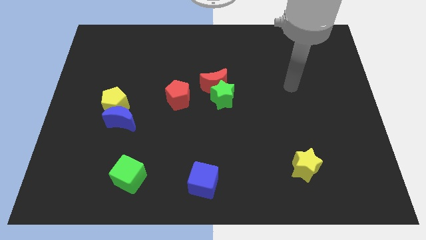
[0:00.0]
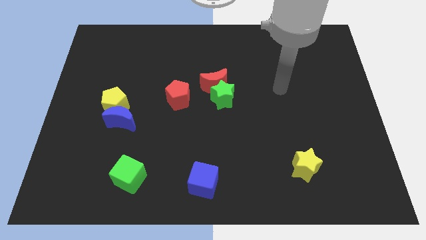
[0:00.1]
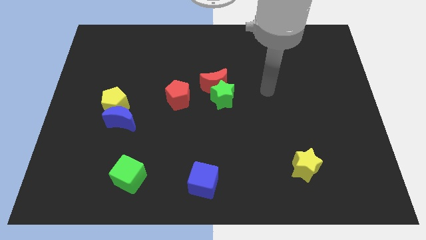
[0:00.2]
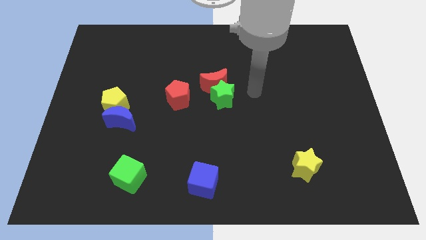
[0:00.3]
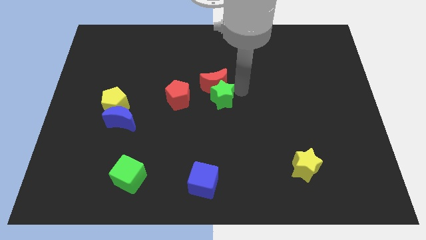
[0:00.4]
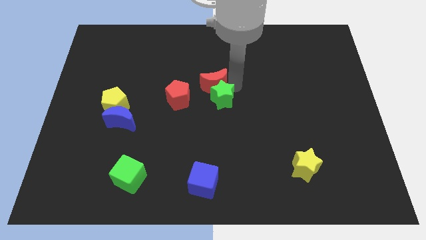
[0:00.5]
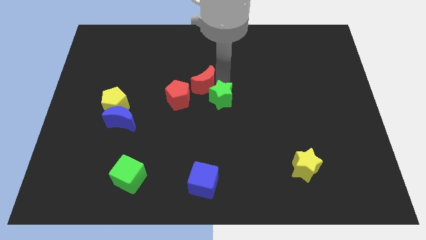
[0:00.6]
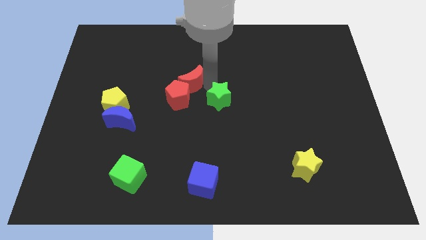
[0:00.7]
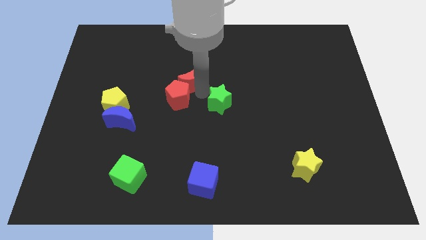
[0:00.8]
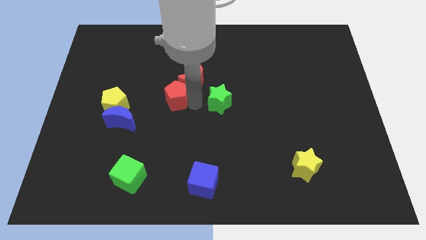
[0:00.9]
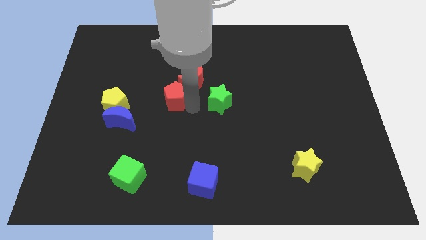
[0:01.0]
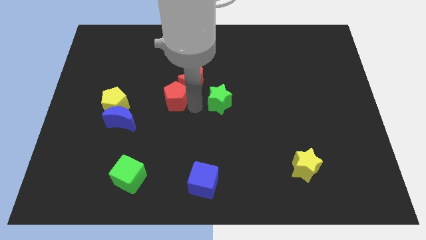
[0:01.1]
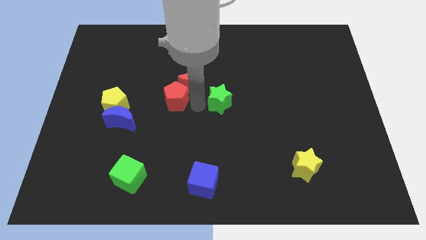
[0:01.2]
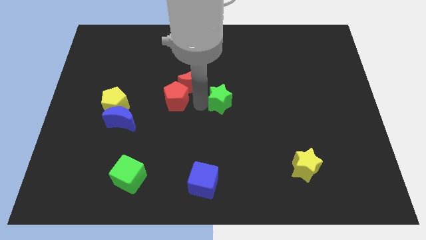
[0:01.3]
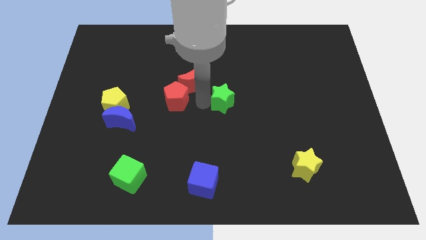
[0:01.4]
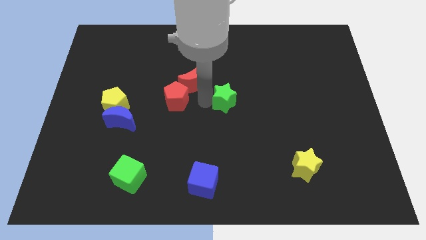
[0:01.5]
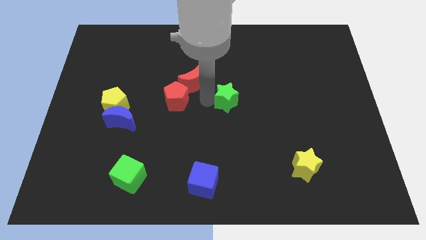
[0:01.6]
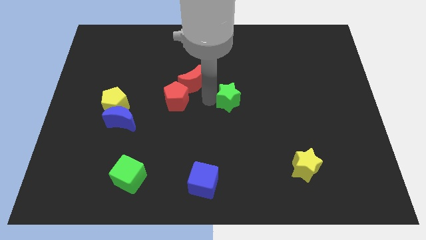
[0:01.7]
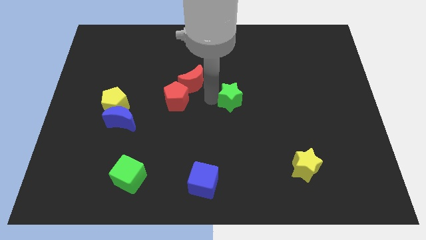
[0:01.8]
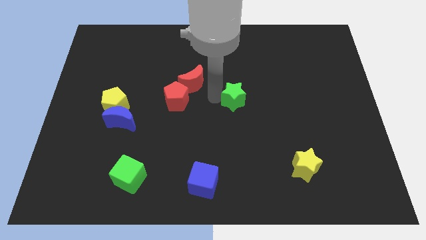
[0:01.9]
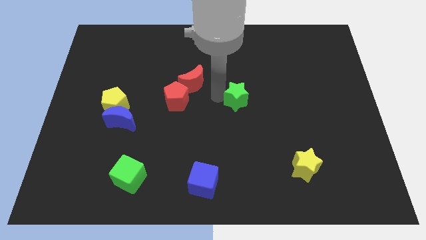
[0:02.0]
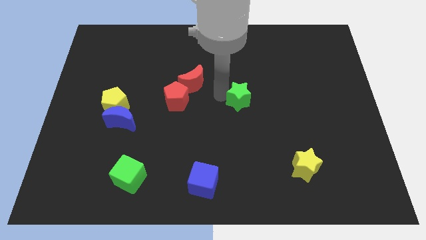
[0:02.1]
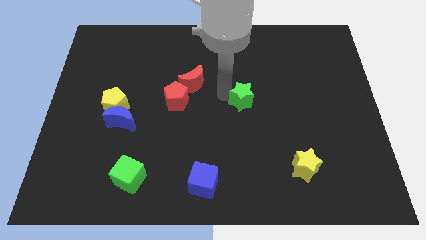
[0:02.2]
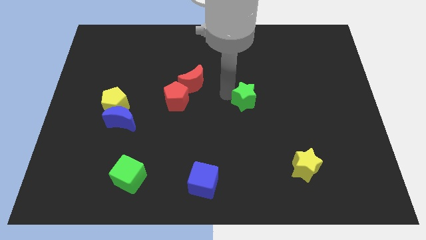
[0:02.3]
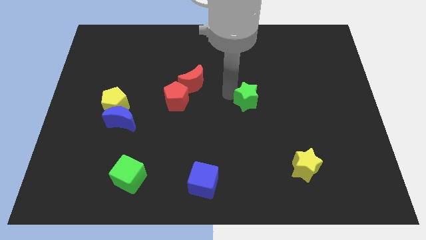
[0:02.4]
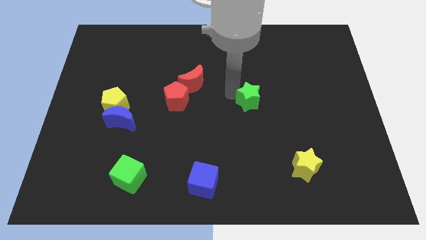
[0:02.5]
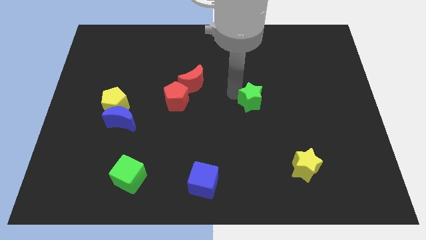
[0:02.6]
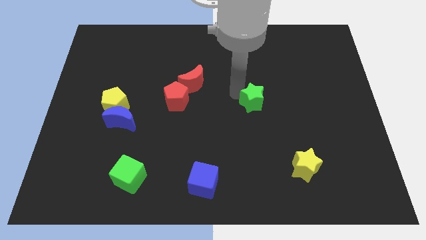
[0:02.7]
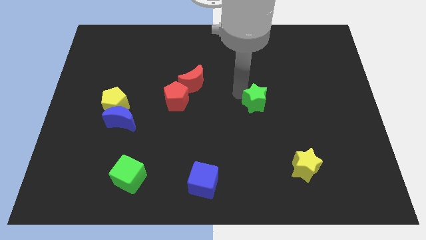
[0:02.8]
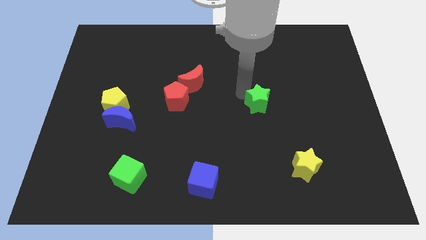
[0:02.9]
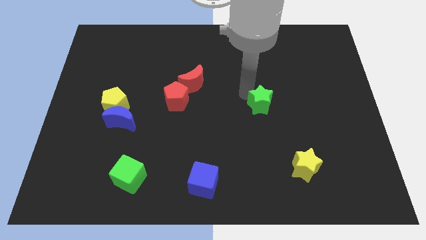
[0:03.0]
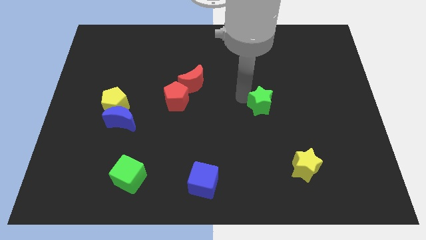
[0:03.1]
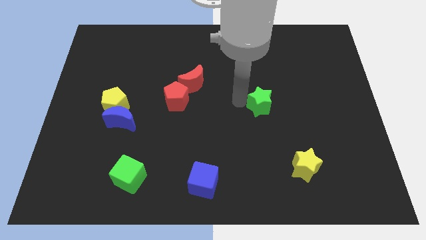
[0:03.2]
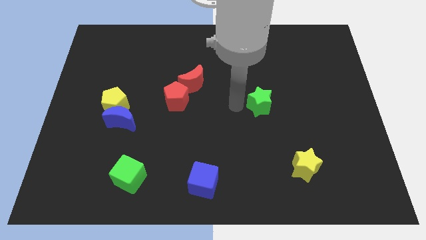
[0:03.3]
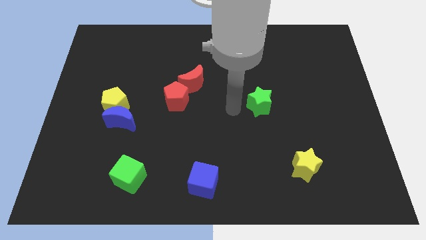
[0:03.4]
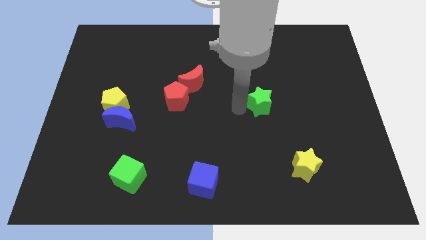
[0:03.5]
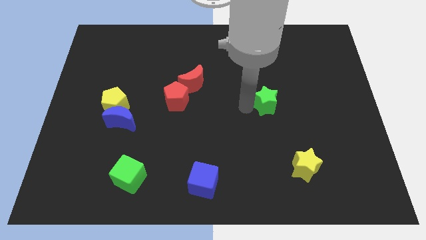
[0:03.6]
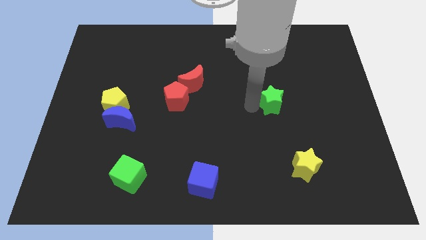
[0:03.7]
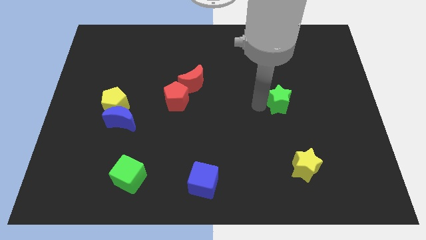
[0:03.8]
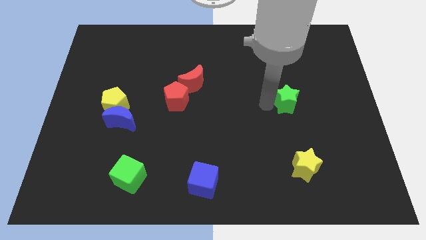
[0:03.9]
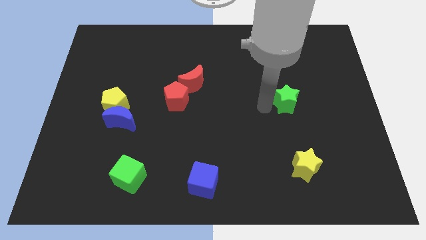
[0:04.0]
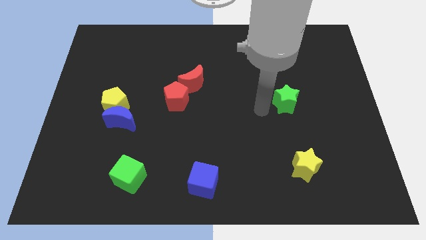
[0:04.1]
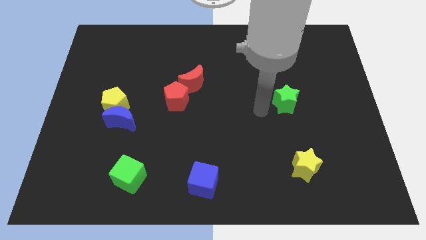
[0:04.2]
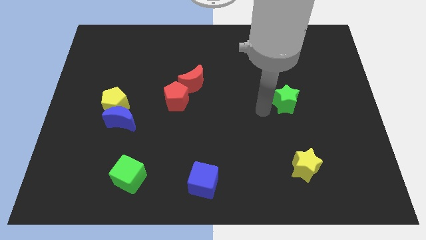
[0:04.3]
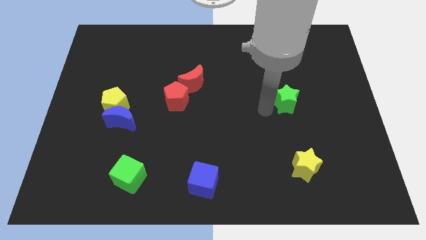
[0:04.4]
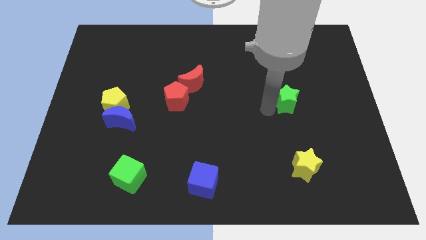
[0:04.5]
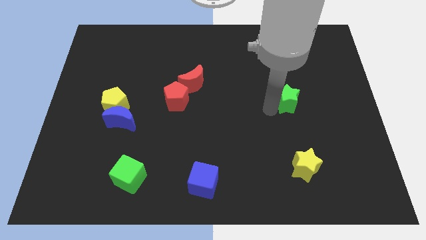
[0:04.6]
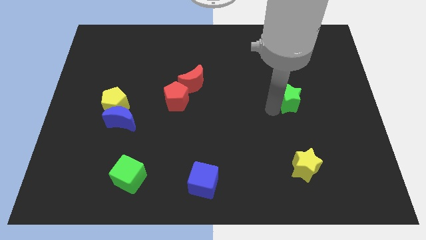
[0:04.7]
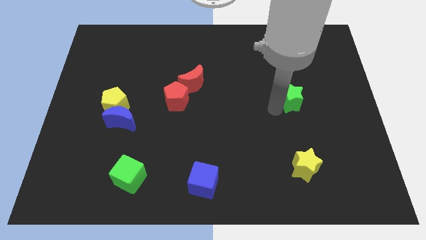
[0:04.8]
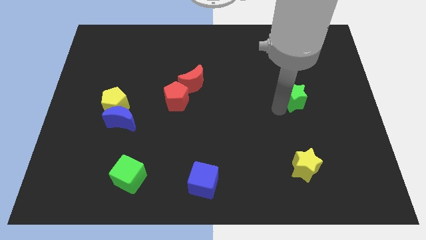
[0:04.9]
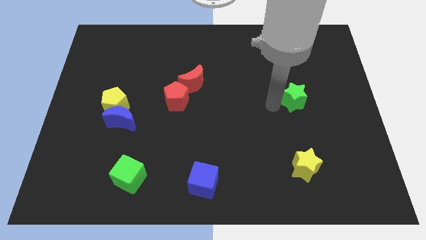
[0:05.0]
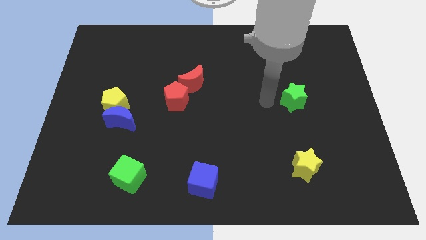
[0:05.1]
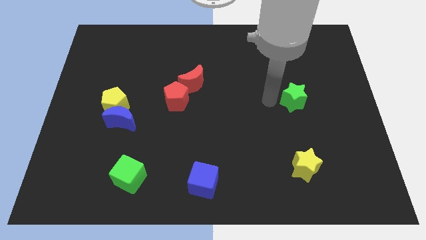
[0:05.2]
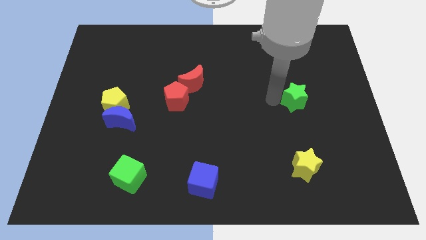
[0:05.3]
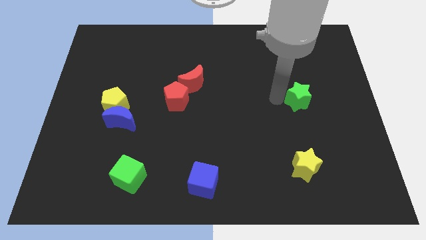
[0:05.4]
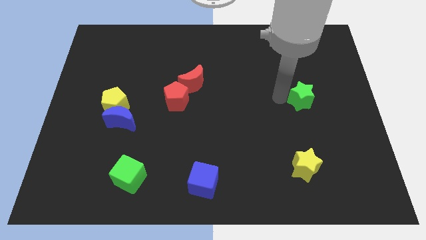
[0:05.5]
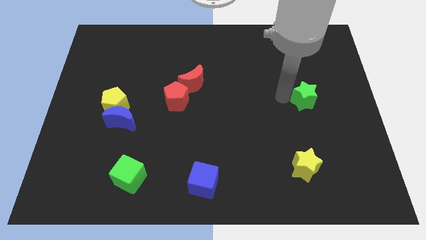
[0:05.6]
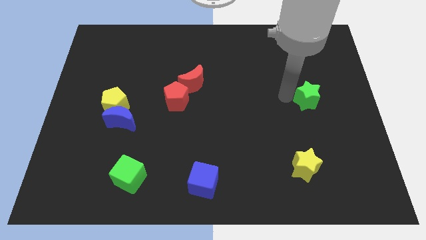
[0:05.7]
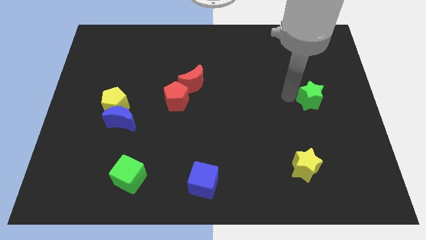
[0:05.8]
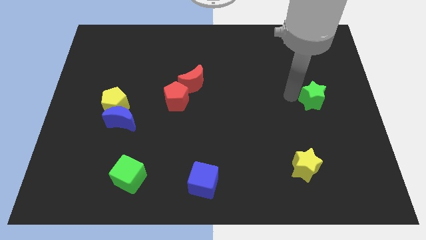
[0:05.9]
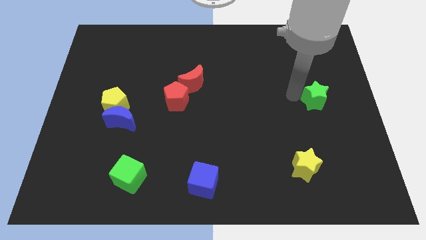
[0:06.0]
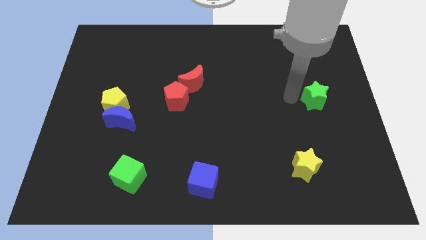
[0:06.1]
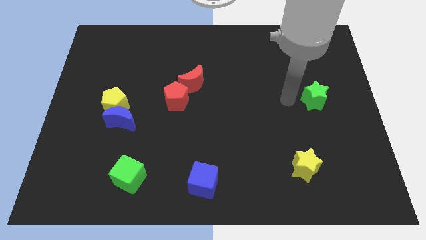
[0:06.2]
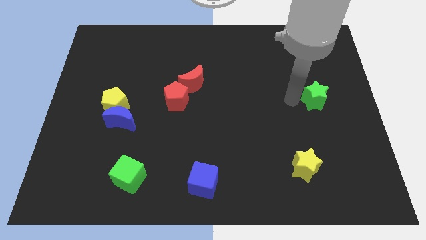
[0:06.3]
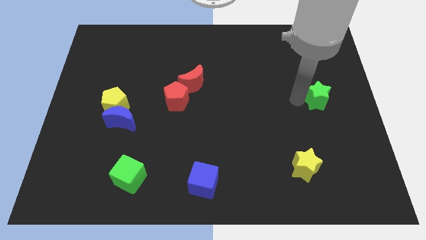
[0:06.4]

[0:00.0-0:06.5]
push the green star to the right side of the board

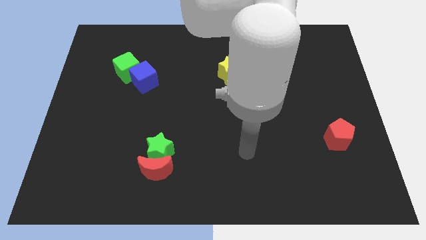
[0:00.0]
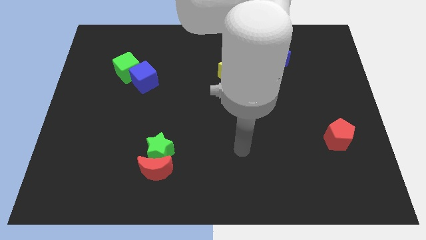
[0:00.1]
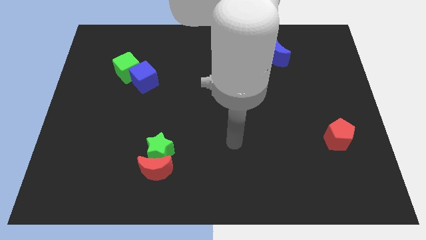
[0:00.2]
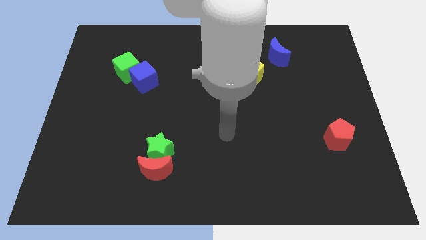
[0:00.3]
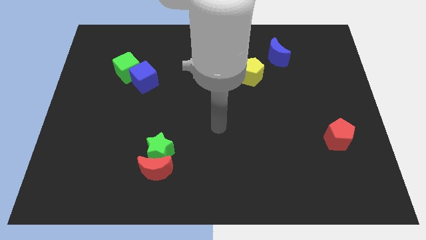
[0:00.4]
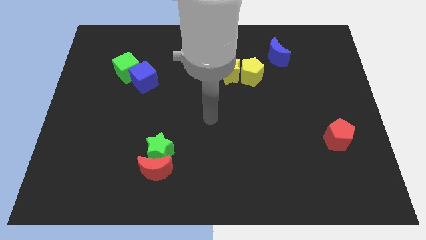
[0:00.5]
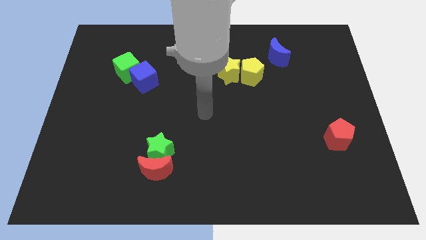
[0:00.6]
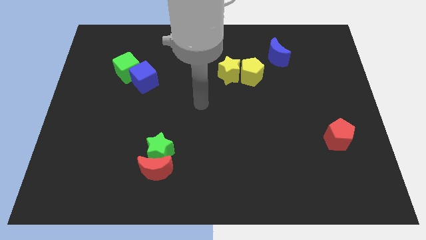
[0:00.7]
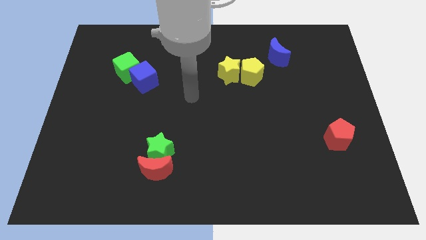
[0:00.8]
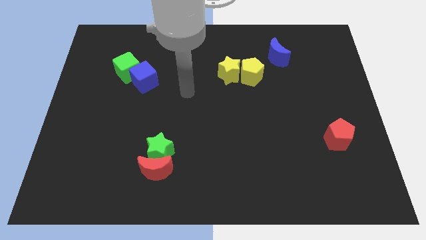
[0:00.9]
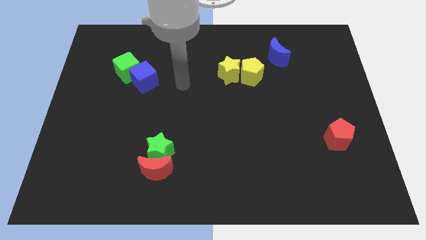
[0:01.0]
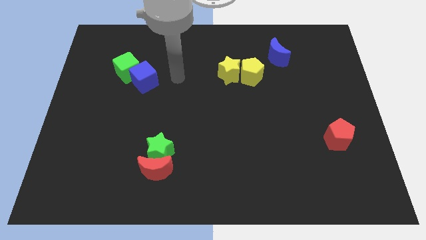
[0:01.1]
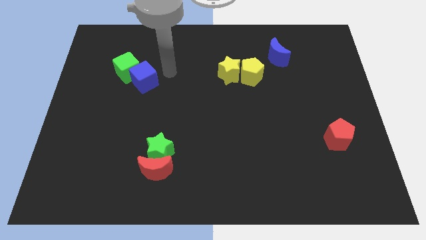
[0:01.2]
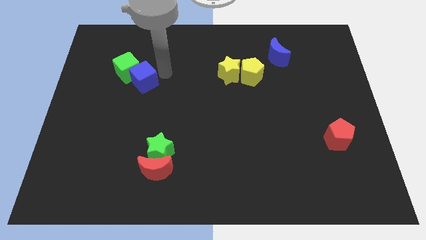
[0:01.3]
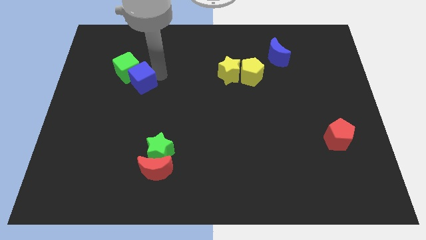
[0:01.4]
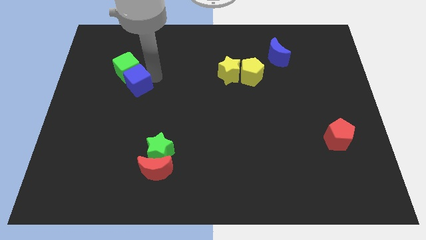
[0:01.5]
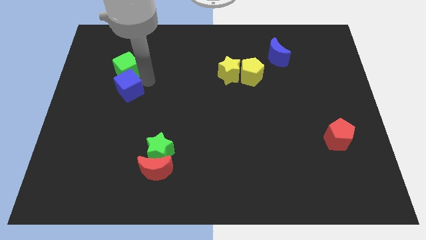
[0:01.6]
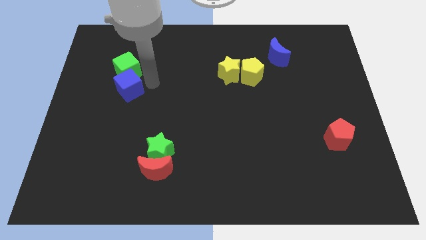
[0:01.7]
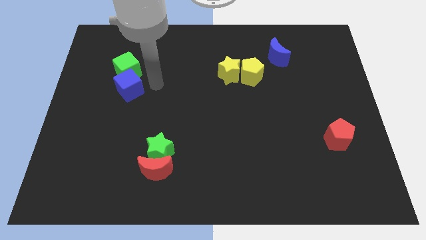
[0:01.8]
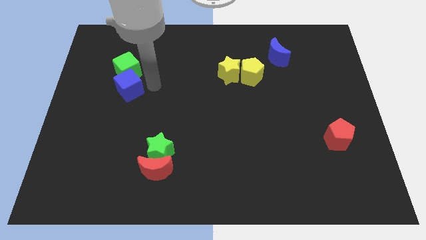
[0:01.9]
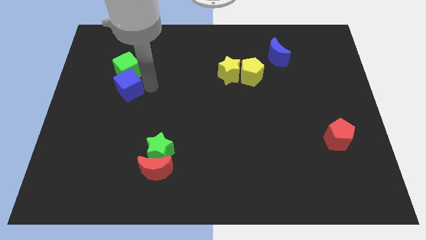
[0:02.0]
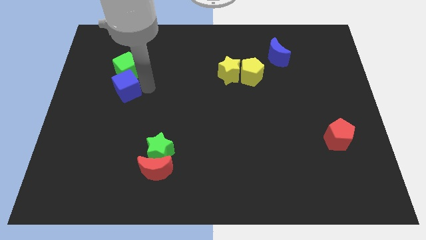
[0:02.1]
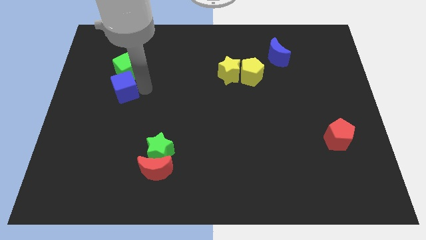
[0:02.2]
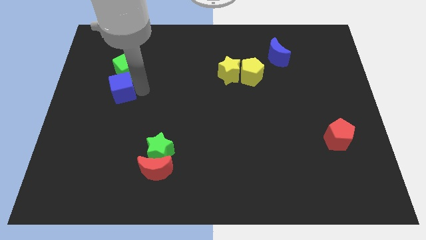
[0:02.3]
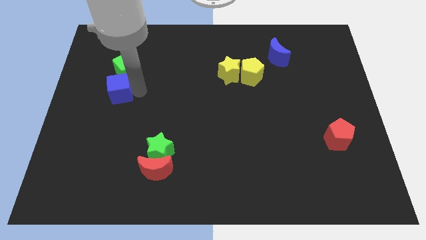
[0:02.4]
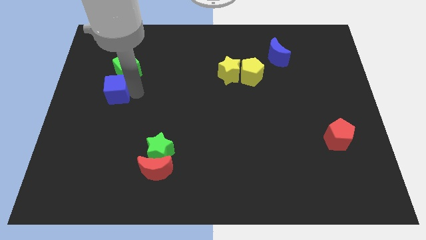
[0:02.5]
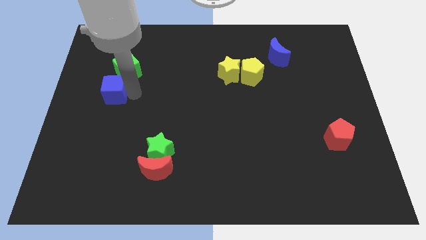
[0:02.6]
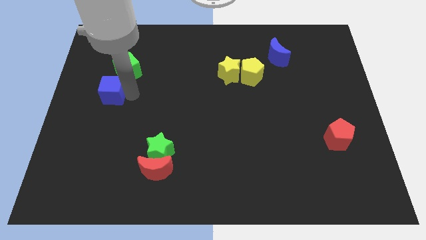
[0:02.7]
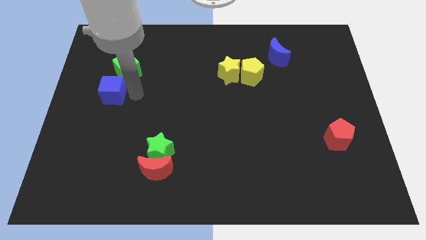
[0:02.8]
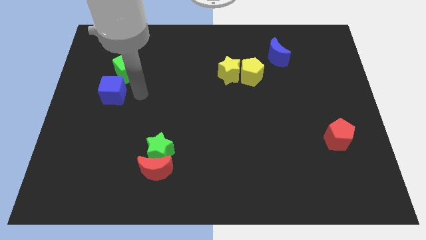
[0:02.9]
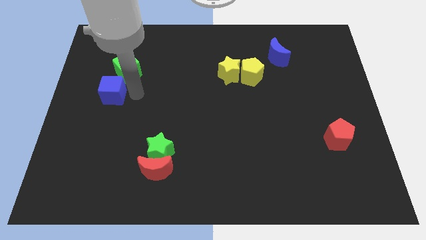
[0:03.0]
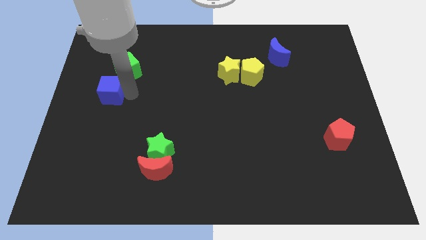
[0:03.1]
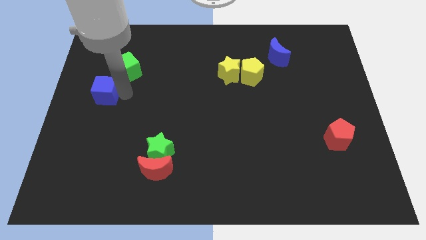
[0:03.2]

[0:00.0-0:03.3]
move the blue cube to the left side
